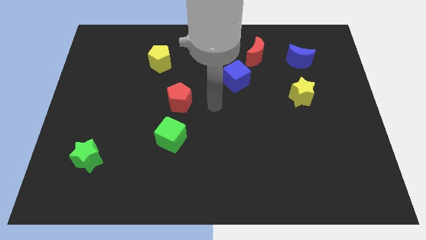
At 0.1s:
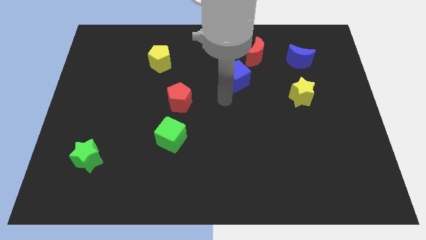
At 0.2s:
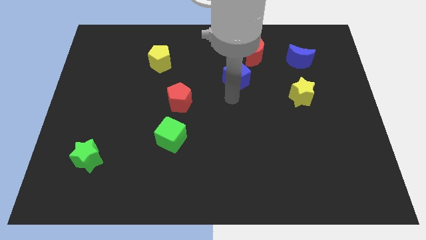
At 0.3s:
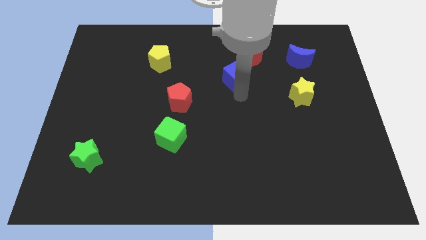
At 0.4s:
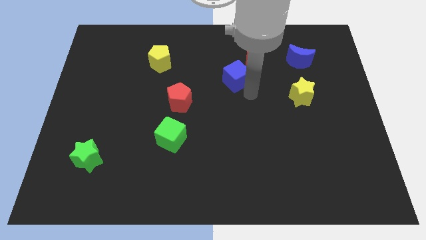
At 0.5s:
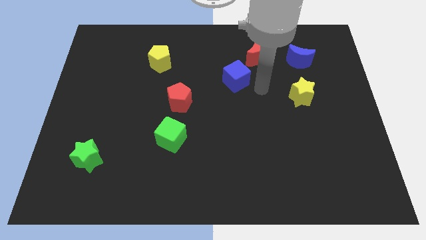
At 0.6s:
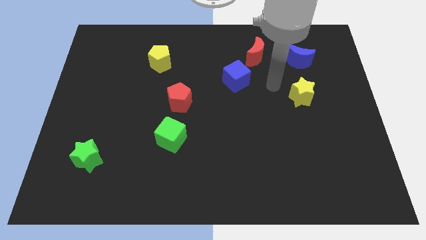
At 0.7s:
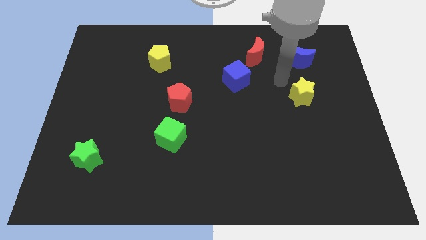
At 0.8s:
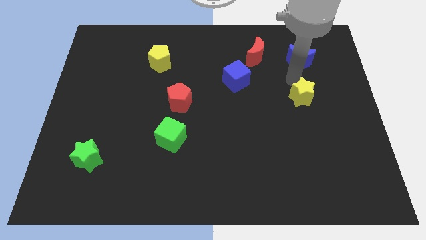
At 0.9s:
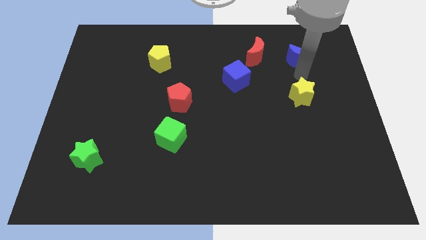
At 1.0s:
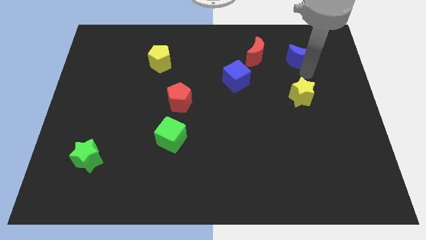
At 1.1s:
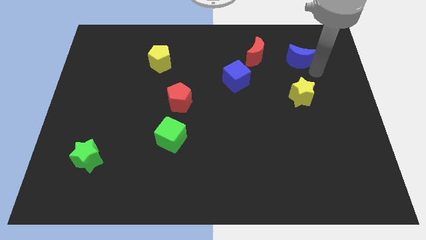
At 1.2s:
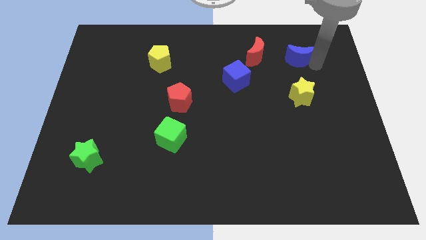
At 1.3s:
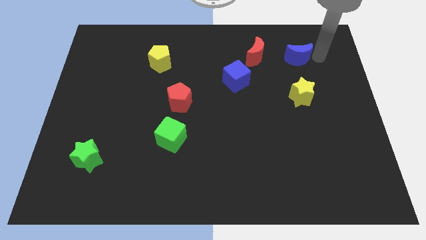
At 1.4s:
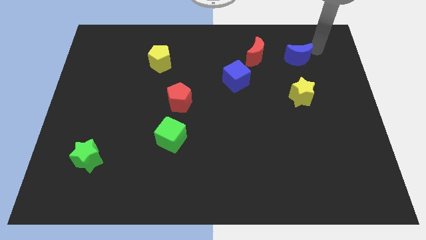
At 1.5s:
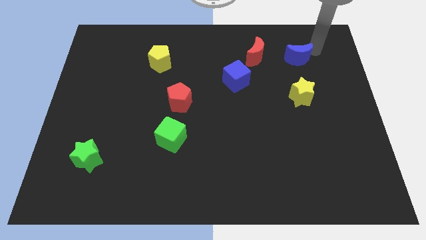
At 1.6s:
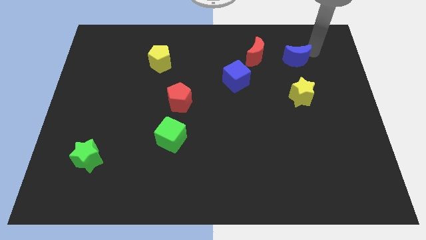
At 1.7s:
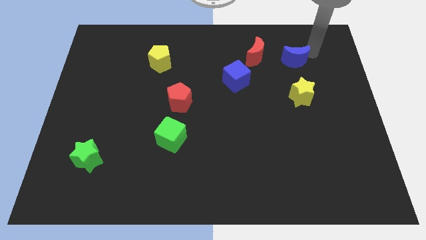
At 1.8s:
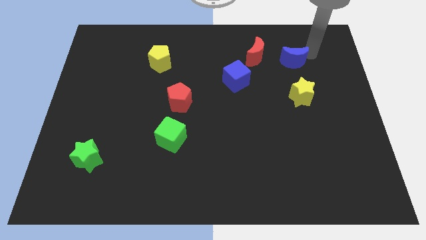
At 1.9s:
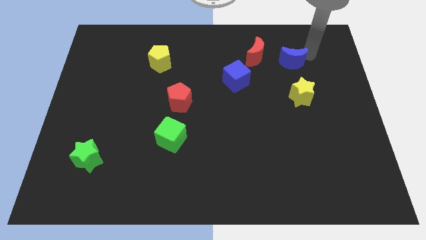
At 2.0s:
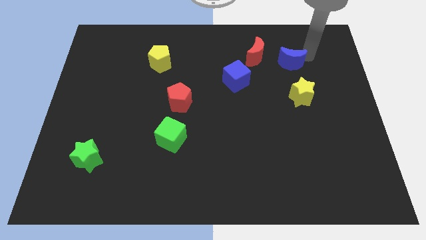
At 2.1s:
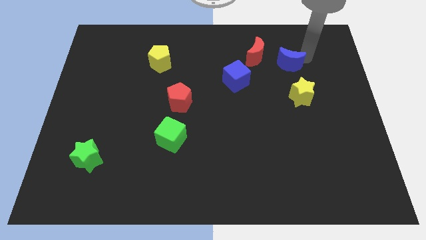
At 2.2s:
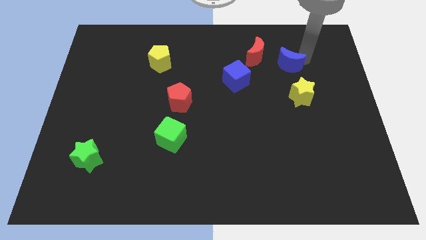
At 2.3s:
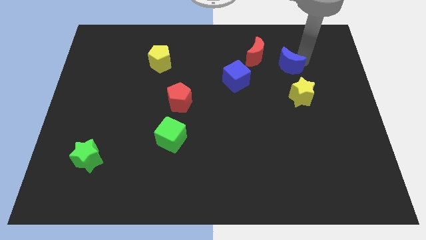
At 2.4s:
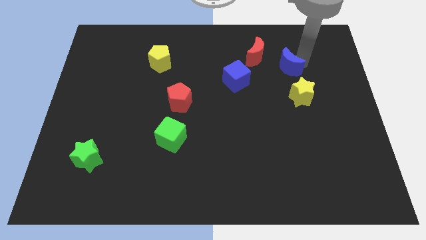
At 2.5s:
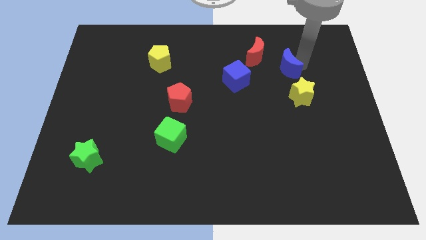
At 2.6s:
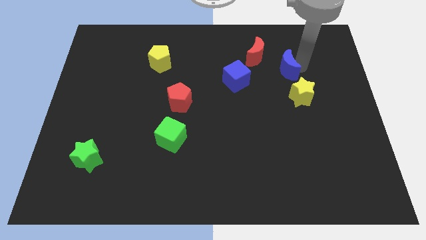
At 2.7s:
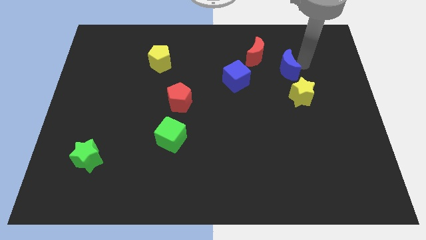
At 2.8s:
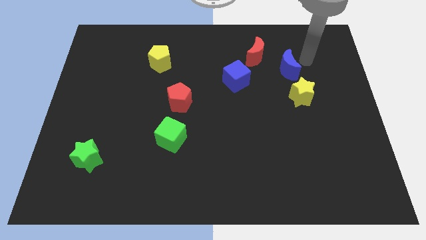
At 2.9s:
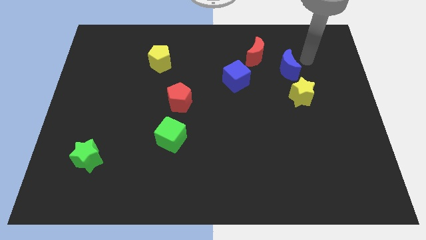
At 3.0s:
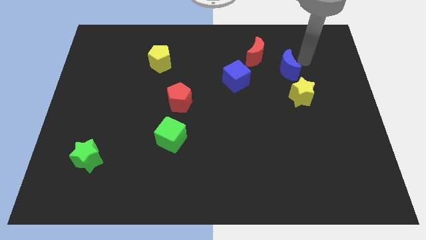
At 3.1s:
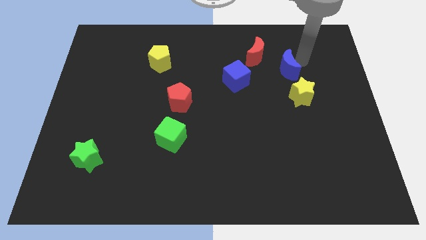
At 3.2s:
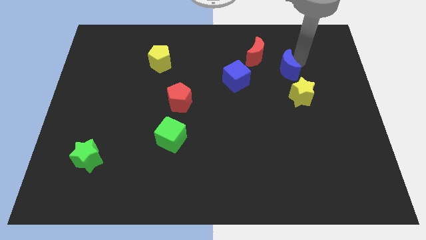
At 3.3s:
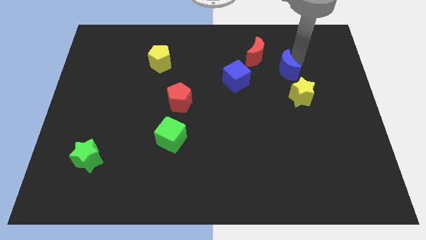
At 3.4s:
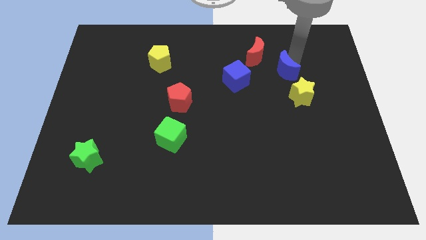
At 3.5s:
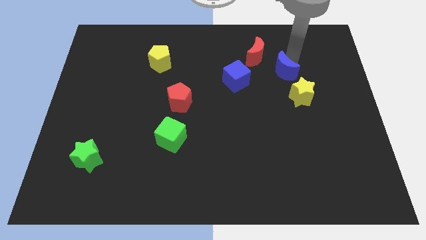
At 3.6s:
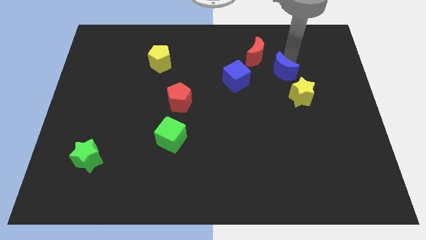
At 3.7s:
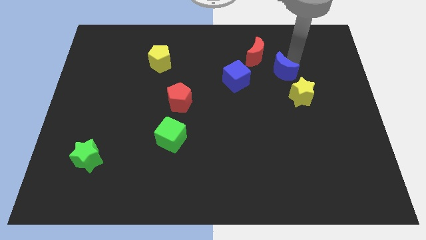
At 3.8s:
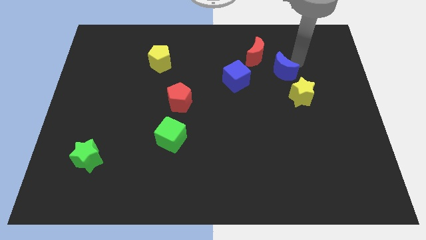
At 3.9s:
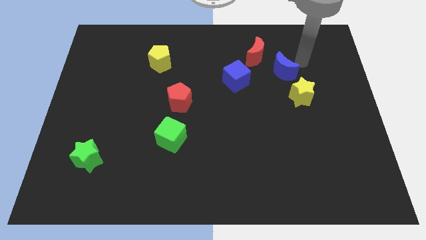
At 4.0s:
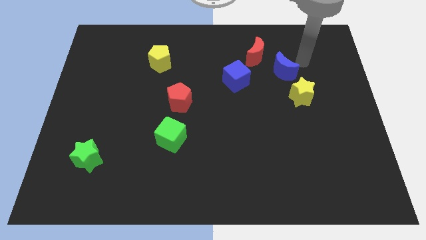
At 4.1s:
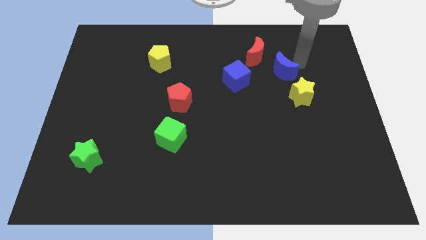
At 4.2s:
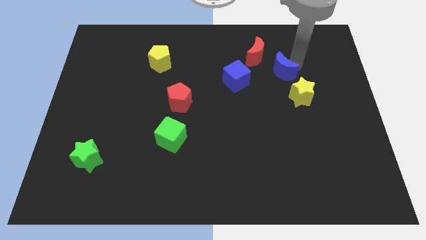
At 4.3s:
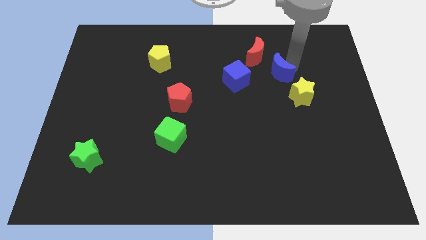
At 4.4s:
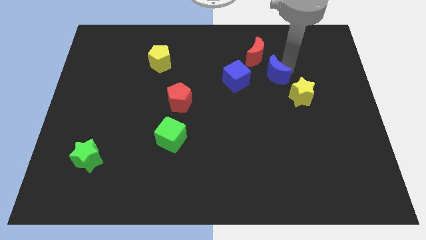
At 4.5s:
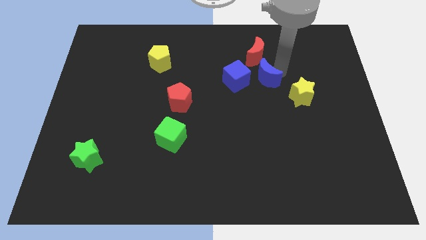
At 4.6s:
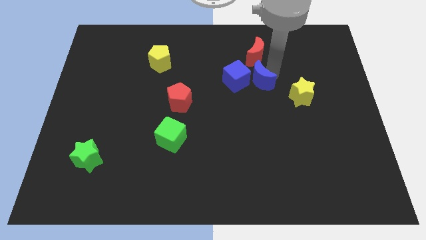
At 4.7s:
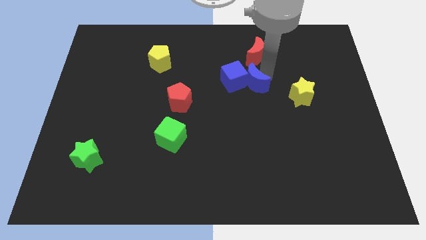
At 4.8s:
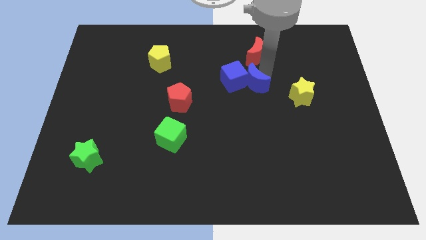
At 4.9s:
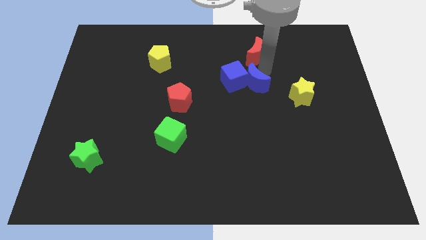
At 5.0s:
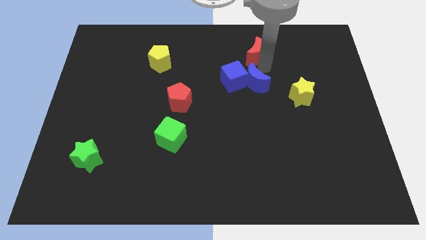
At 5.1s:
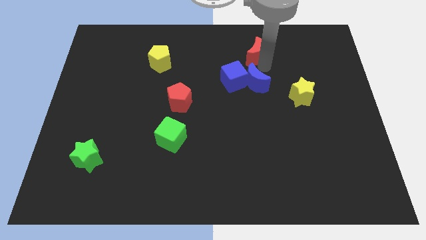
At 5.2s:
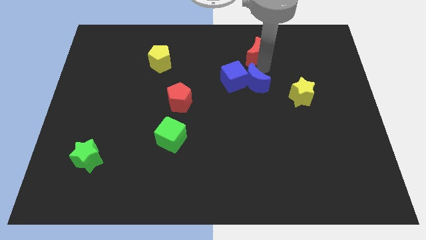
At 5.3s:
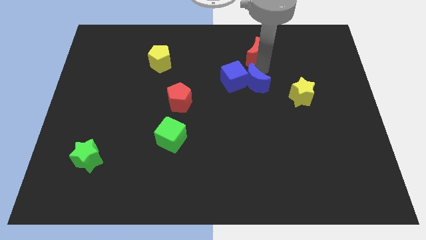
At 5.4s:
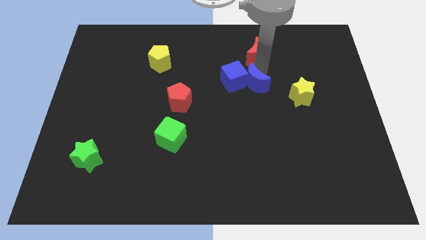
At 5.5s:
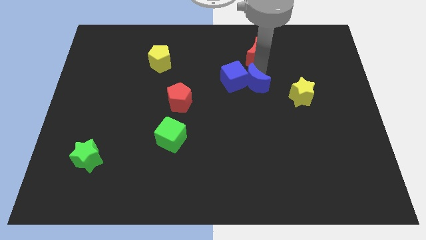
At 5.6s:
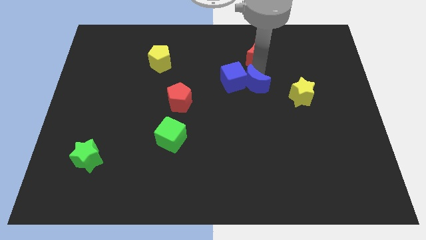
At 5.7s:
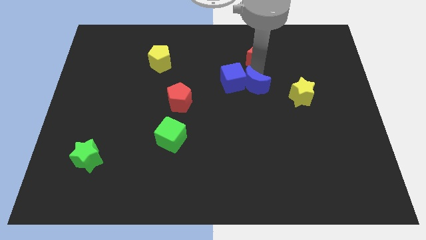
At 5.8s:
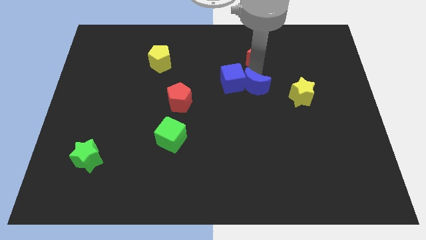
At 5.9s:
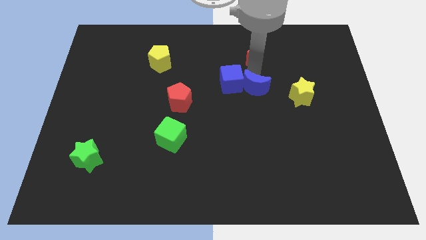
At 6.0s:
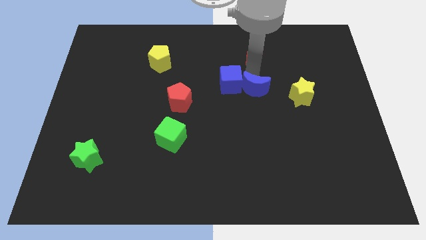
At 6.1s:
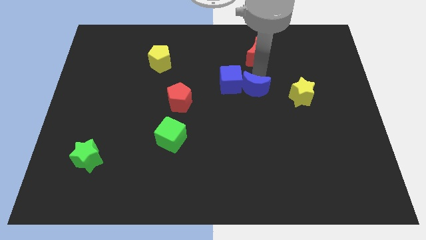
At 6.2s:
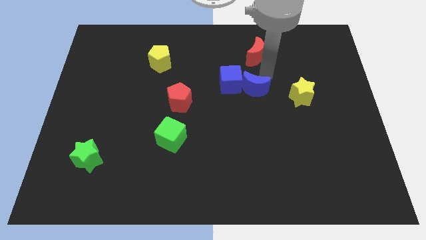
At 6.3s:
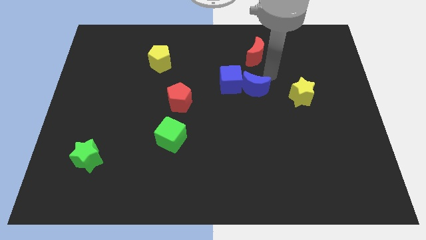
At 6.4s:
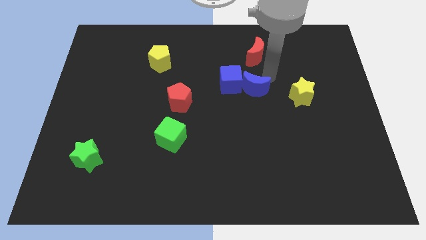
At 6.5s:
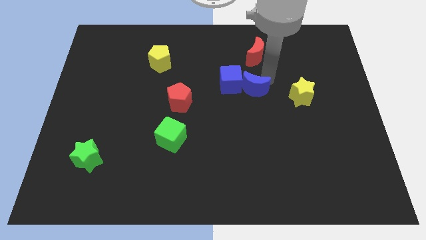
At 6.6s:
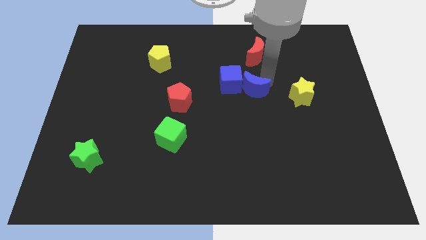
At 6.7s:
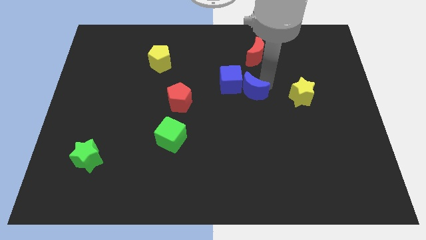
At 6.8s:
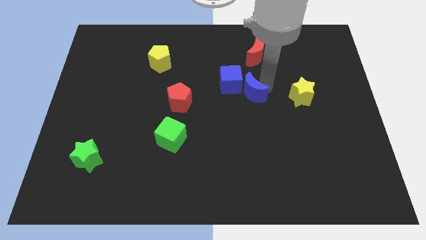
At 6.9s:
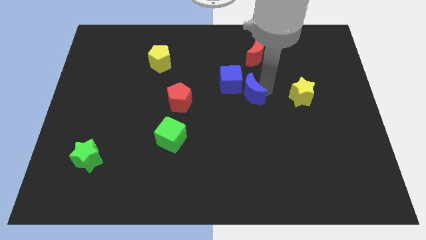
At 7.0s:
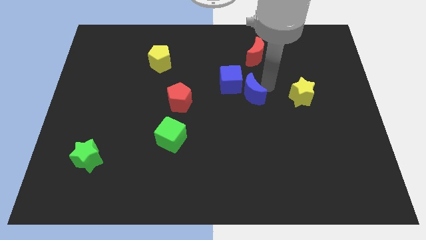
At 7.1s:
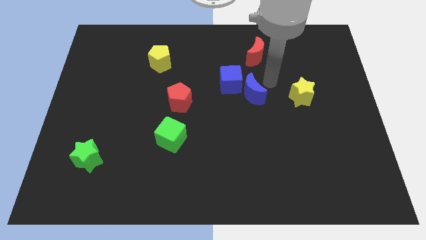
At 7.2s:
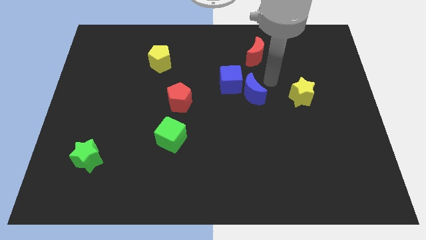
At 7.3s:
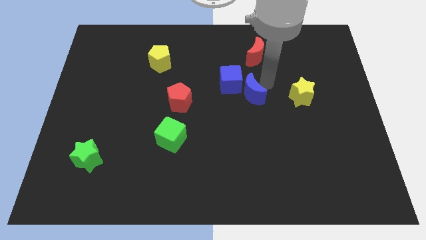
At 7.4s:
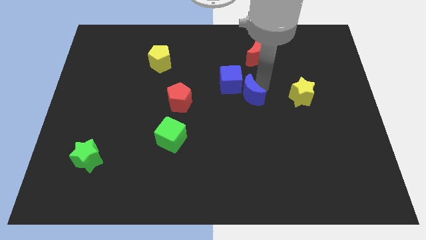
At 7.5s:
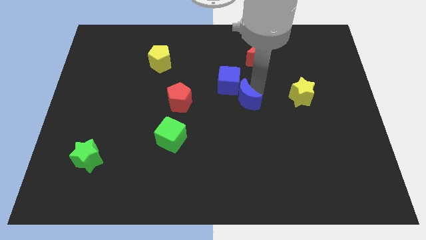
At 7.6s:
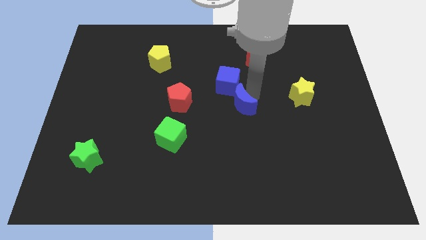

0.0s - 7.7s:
move the blue moon down and left diagonally

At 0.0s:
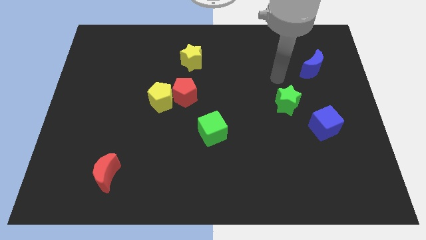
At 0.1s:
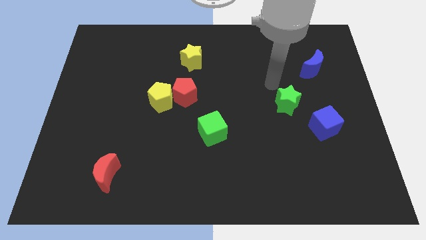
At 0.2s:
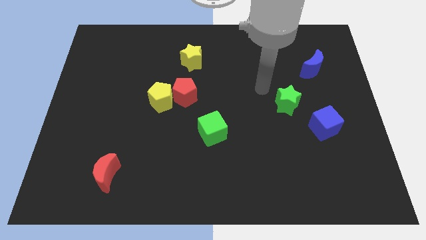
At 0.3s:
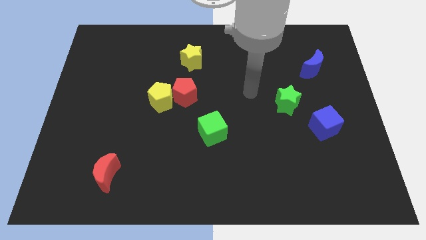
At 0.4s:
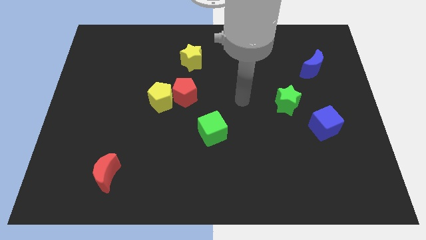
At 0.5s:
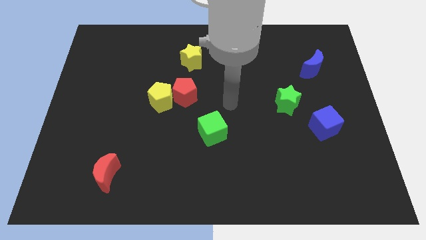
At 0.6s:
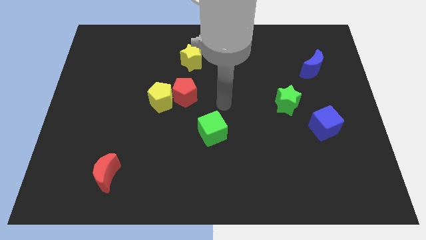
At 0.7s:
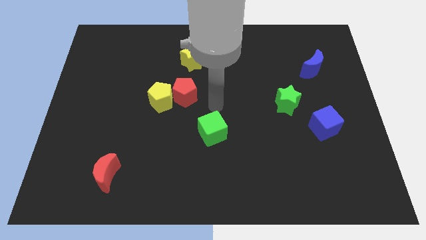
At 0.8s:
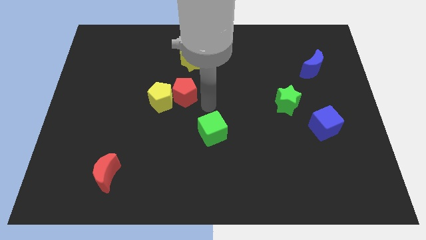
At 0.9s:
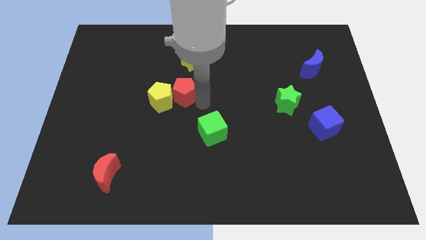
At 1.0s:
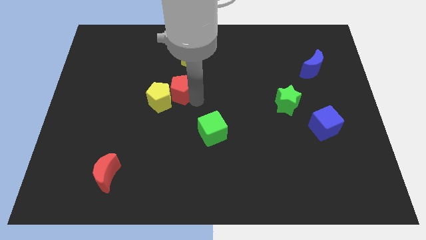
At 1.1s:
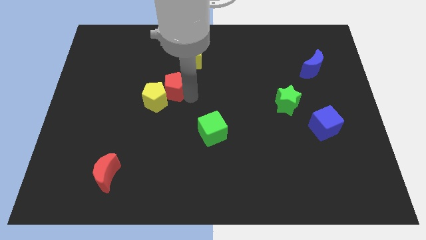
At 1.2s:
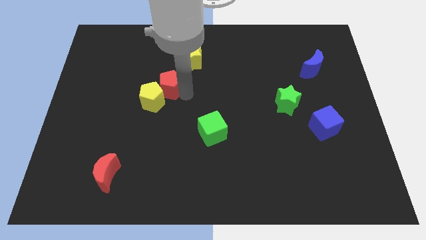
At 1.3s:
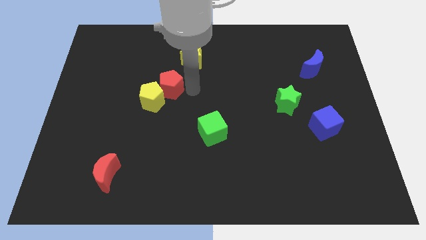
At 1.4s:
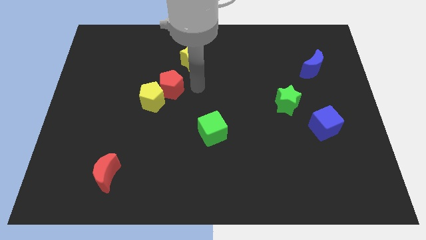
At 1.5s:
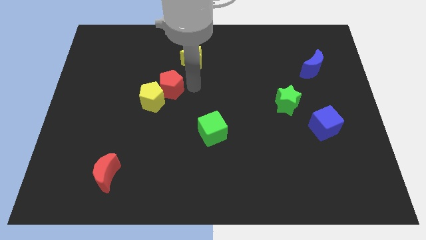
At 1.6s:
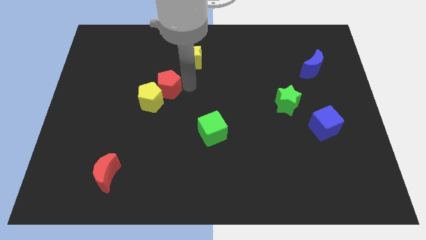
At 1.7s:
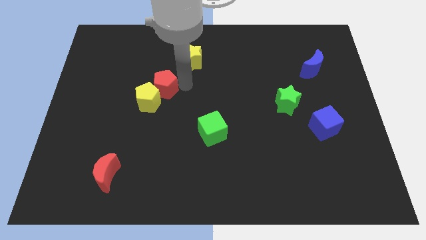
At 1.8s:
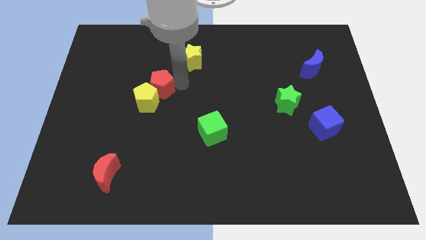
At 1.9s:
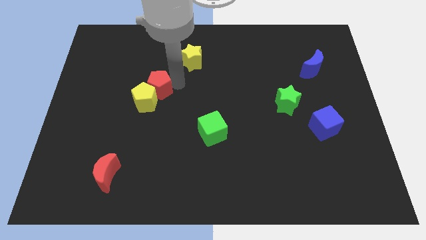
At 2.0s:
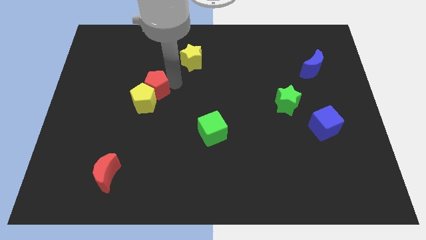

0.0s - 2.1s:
slightly move the red pentagon to the left
